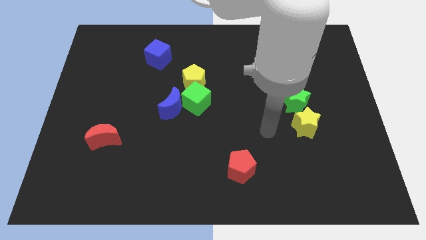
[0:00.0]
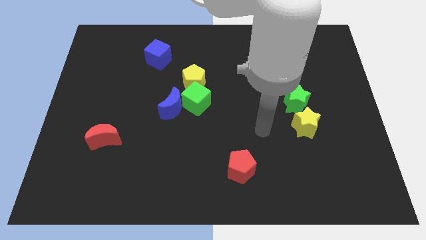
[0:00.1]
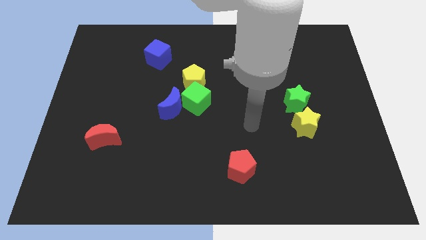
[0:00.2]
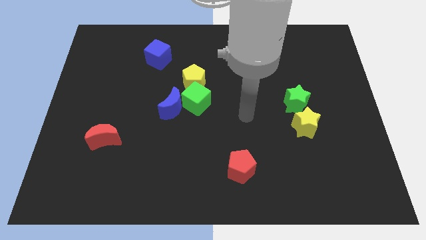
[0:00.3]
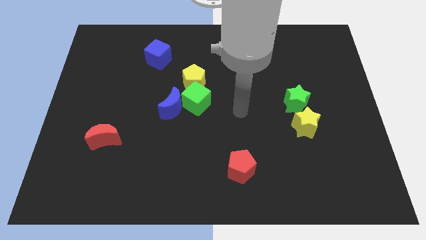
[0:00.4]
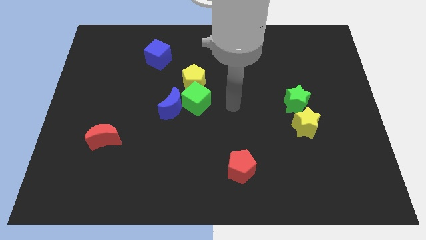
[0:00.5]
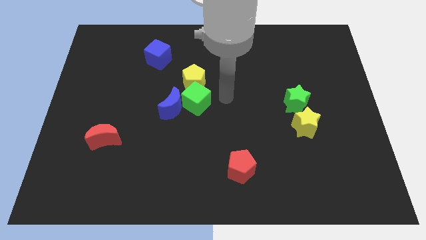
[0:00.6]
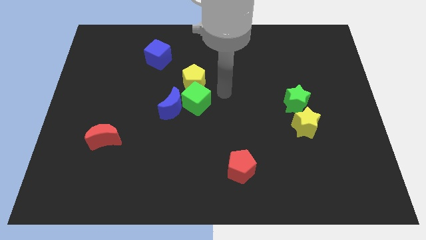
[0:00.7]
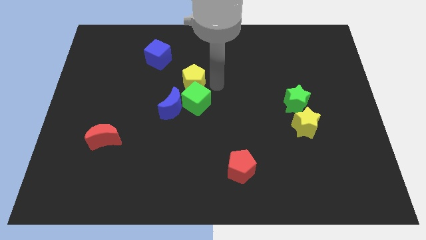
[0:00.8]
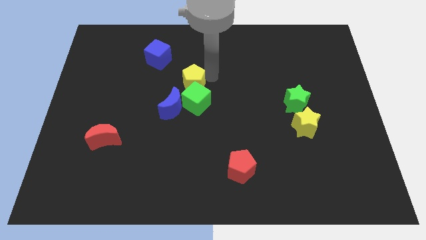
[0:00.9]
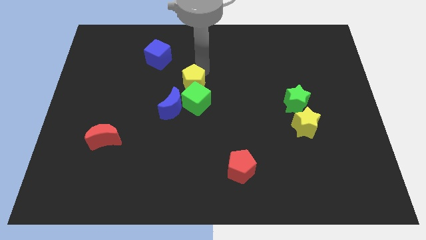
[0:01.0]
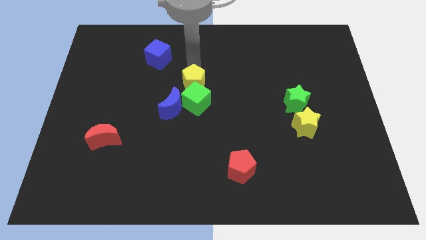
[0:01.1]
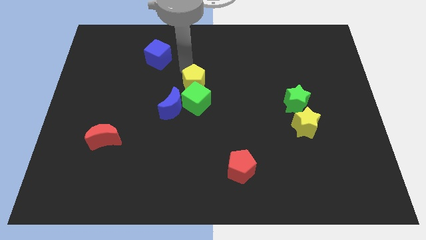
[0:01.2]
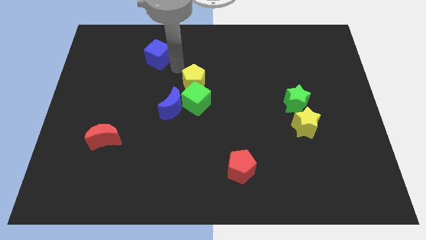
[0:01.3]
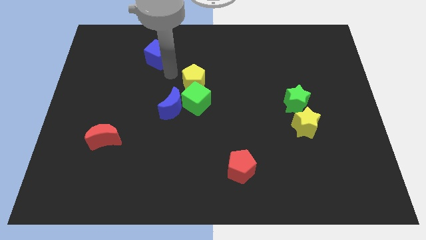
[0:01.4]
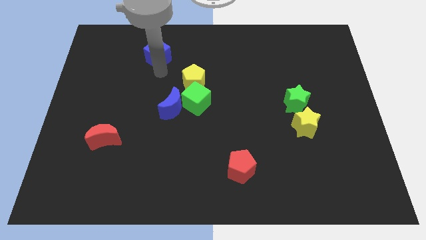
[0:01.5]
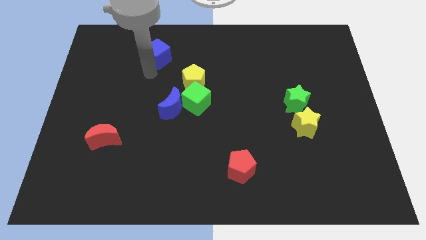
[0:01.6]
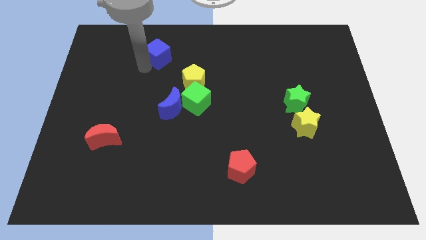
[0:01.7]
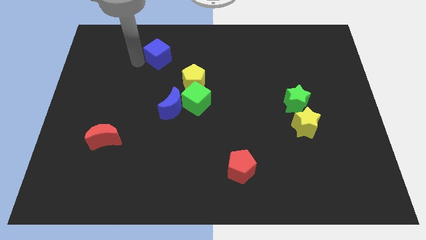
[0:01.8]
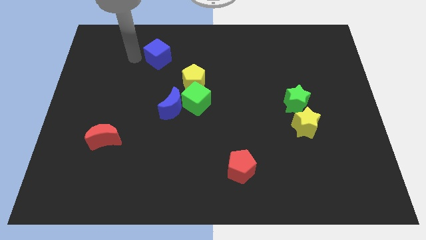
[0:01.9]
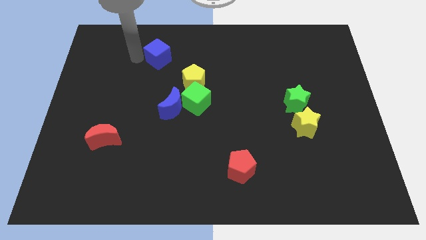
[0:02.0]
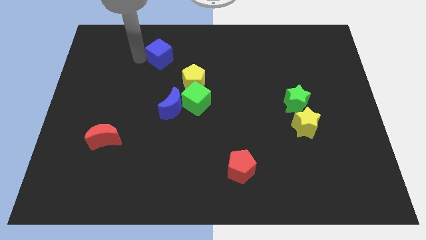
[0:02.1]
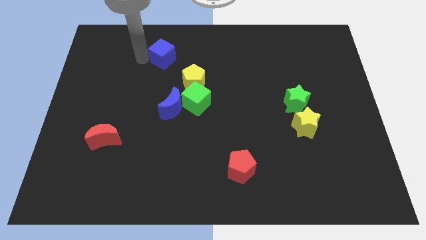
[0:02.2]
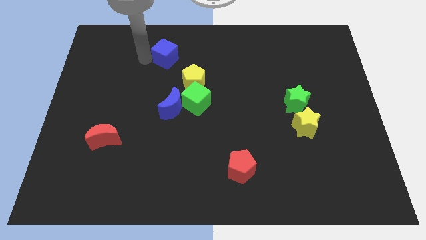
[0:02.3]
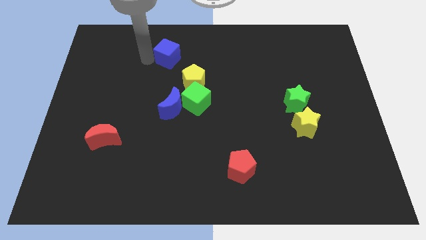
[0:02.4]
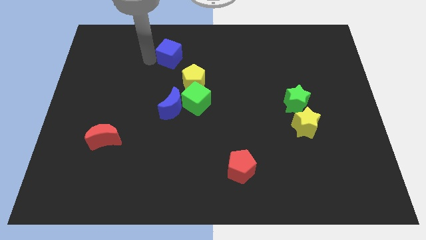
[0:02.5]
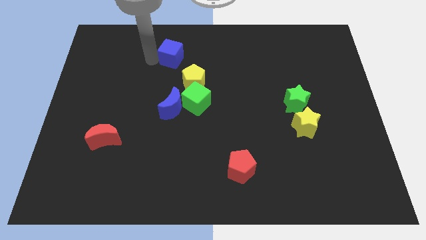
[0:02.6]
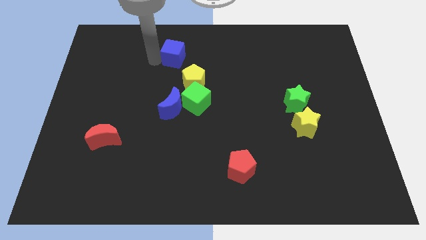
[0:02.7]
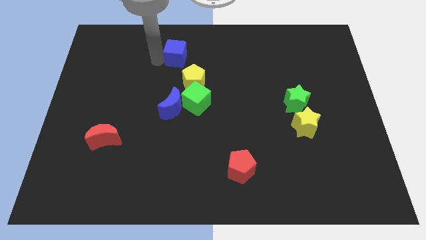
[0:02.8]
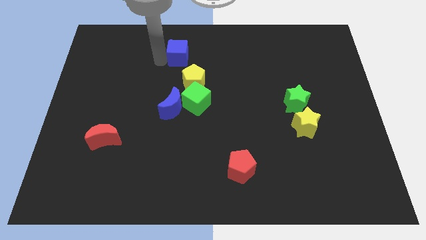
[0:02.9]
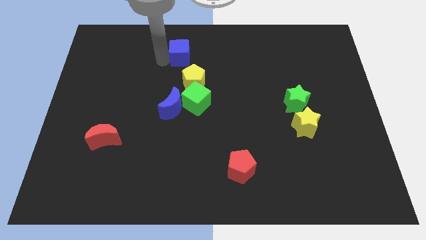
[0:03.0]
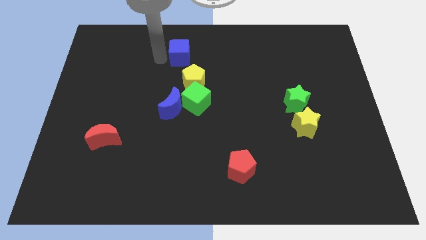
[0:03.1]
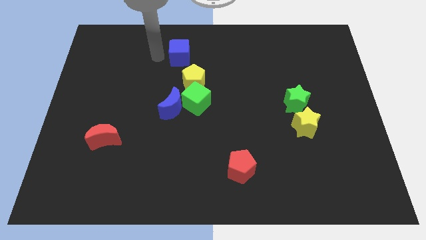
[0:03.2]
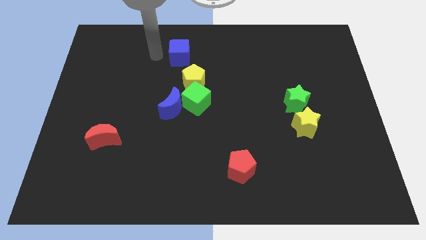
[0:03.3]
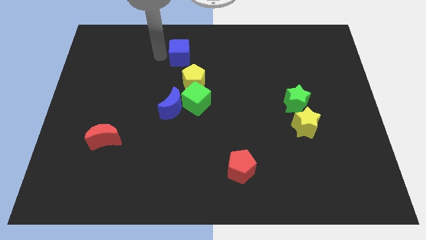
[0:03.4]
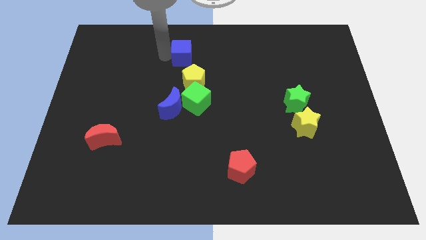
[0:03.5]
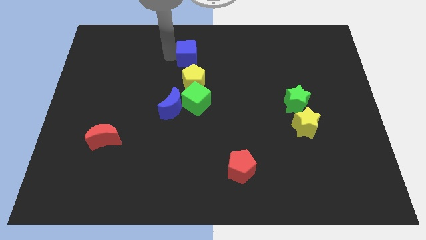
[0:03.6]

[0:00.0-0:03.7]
slightly slide the blue cube right

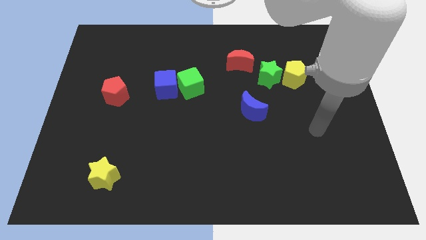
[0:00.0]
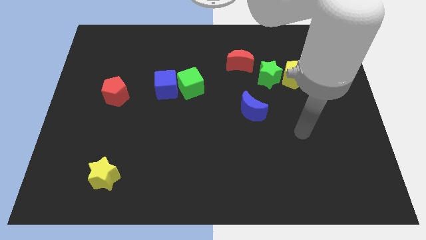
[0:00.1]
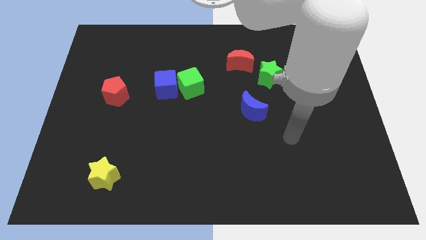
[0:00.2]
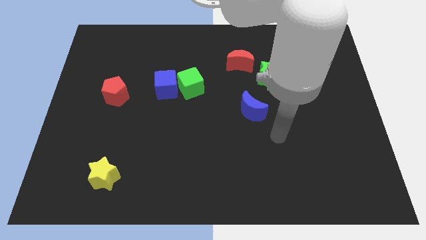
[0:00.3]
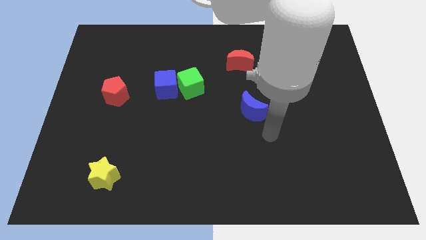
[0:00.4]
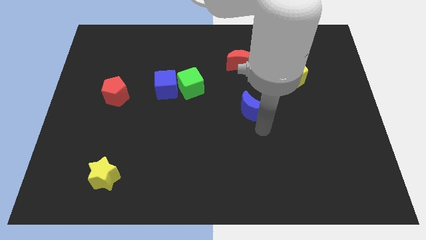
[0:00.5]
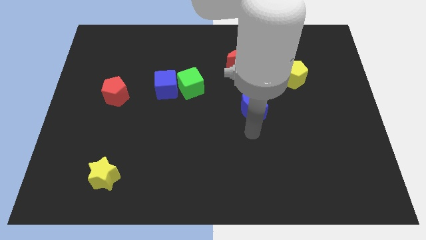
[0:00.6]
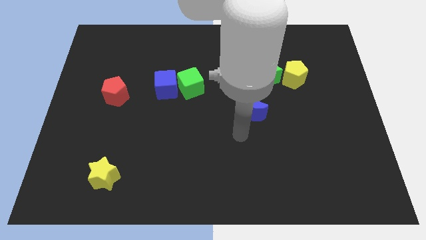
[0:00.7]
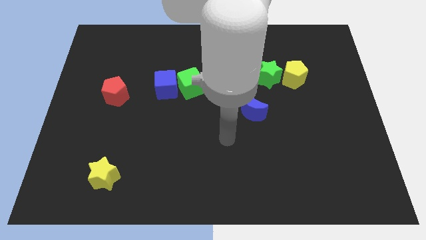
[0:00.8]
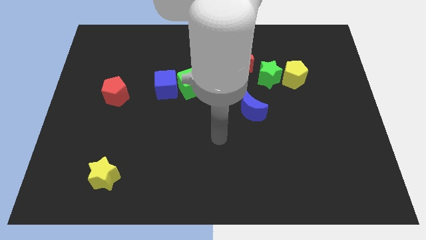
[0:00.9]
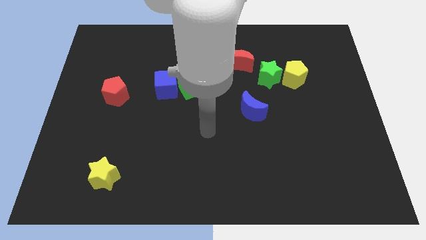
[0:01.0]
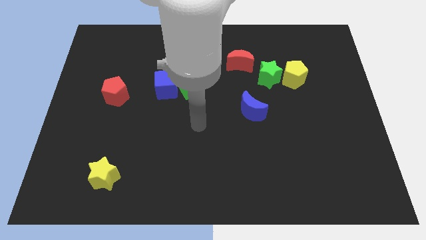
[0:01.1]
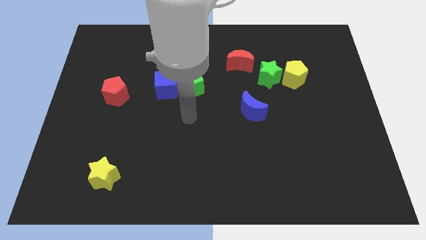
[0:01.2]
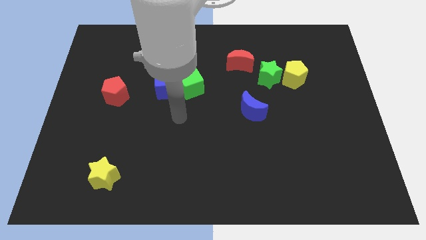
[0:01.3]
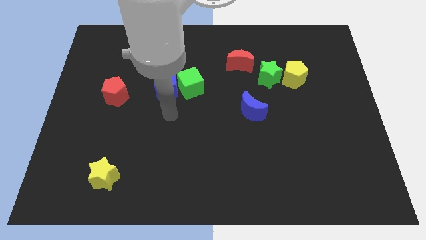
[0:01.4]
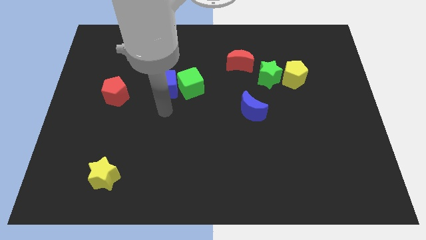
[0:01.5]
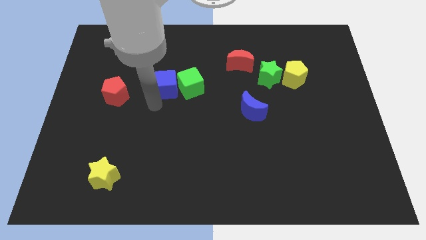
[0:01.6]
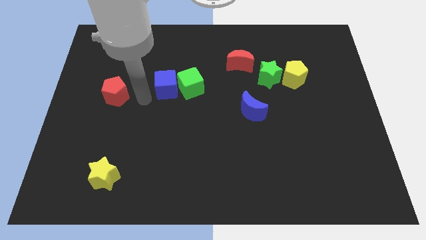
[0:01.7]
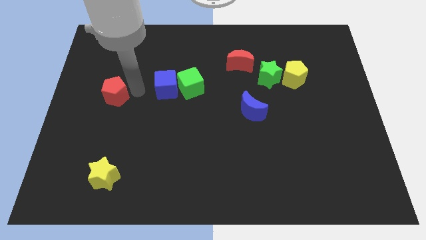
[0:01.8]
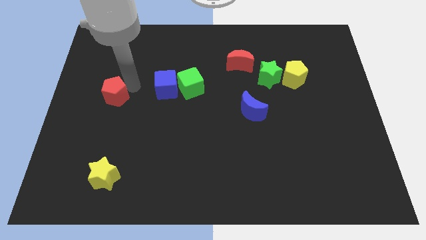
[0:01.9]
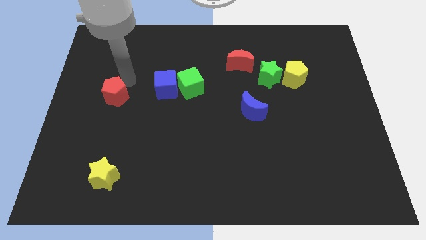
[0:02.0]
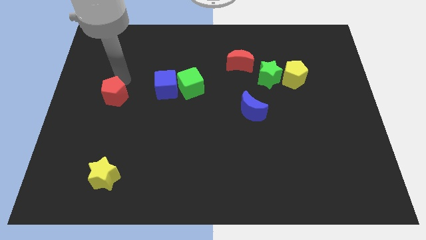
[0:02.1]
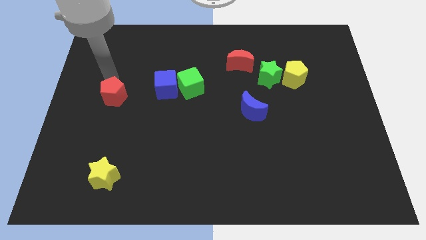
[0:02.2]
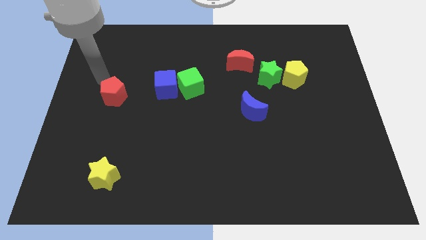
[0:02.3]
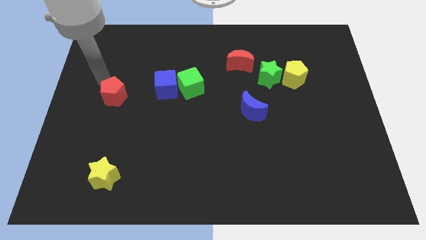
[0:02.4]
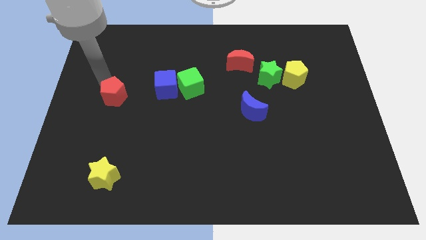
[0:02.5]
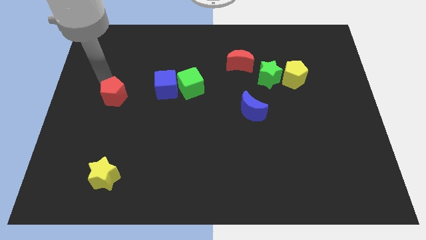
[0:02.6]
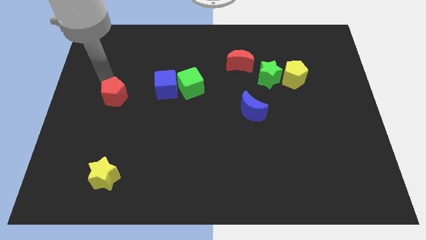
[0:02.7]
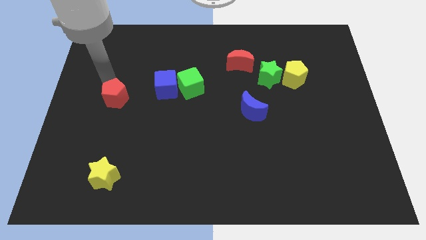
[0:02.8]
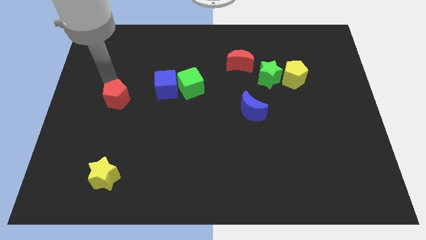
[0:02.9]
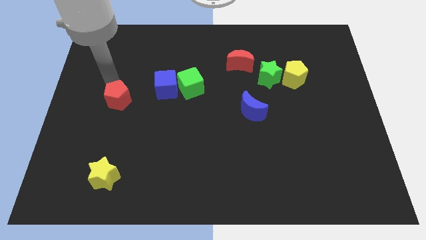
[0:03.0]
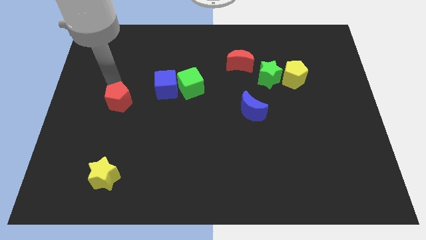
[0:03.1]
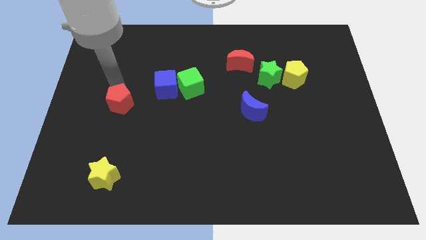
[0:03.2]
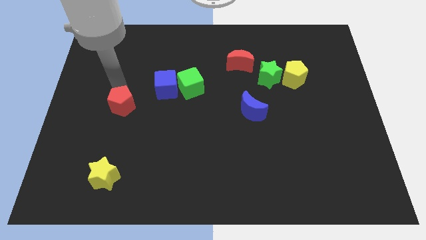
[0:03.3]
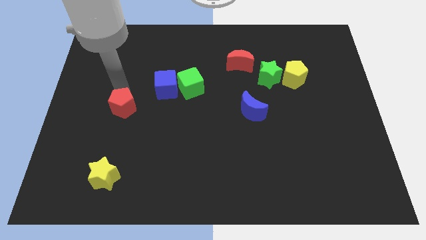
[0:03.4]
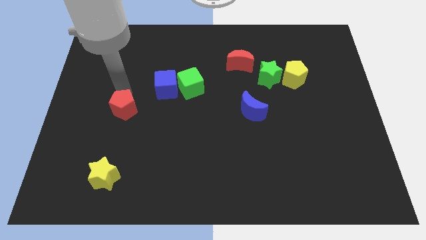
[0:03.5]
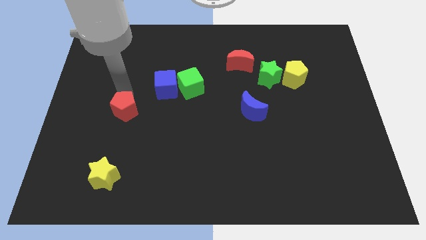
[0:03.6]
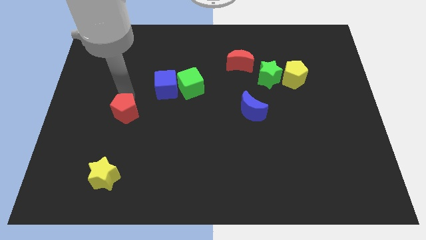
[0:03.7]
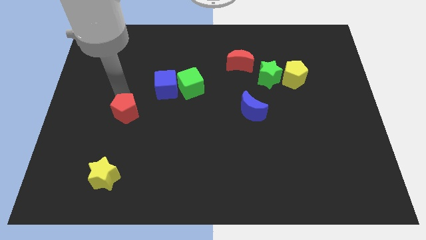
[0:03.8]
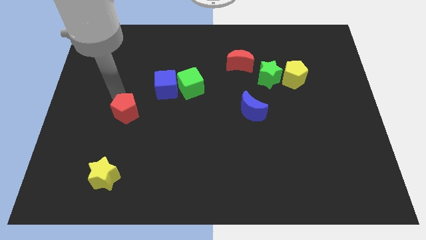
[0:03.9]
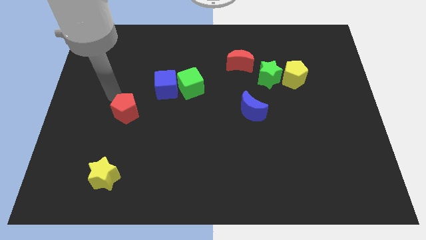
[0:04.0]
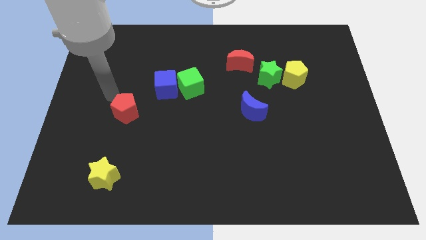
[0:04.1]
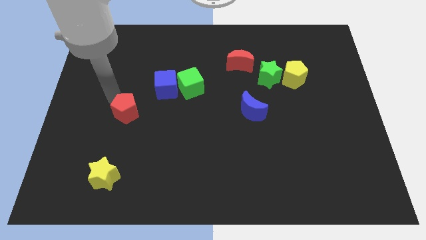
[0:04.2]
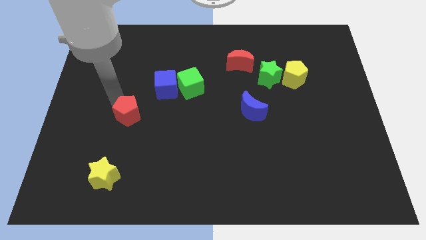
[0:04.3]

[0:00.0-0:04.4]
slightly push the red pentagon downwards and then right
